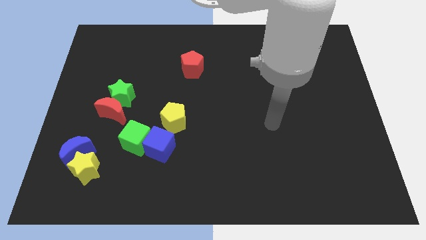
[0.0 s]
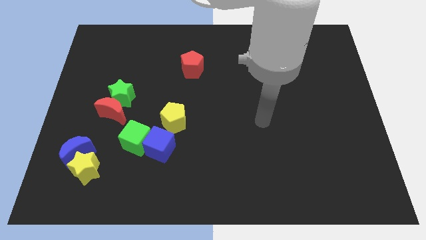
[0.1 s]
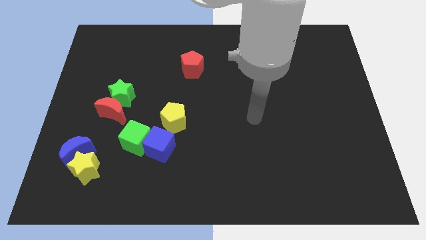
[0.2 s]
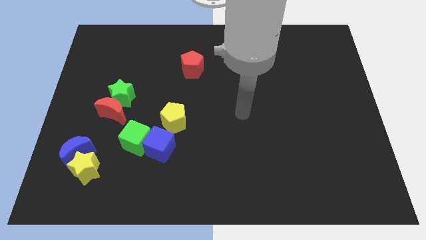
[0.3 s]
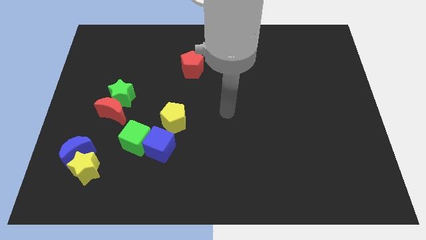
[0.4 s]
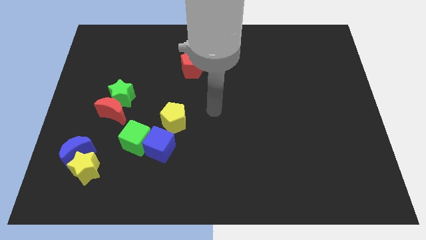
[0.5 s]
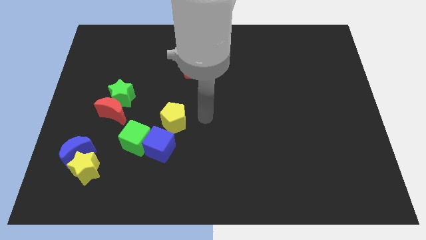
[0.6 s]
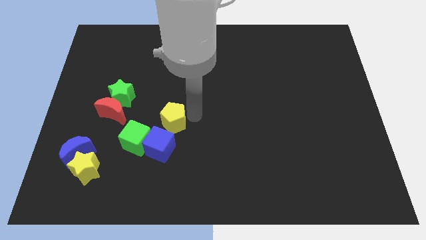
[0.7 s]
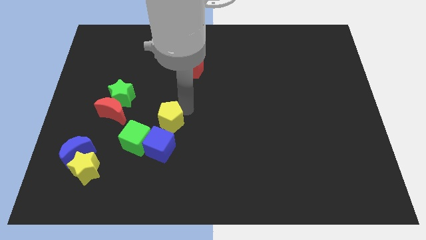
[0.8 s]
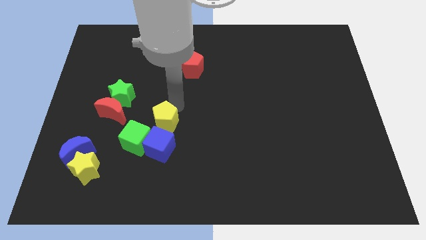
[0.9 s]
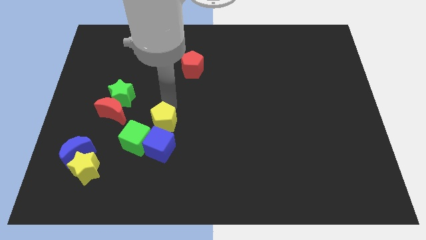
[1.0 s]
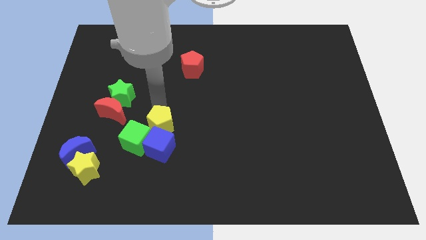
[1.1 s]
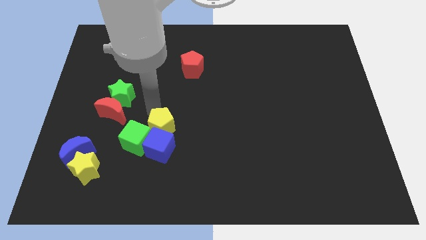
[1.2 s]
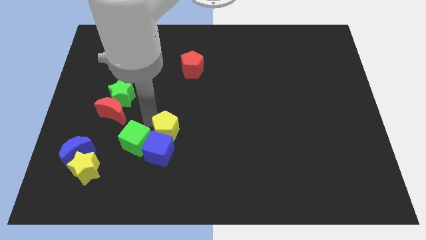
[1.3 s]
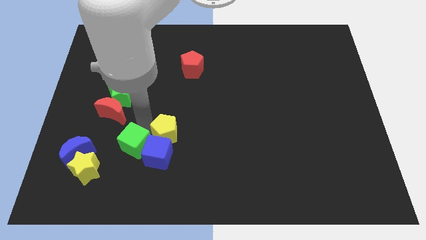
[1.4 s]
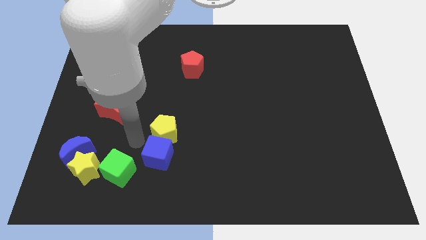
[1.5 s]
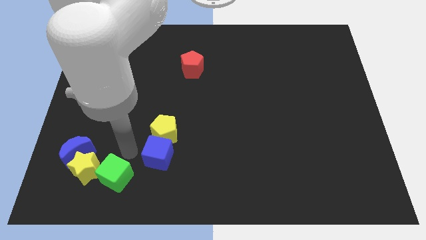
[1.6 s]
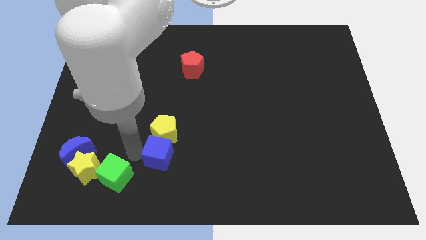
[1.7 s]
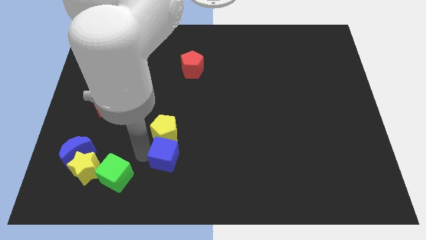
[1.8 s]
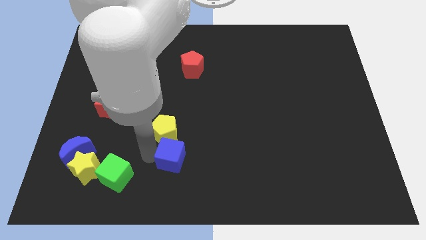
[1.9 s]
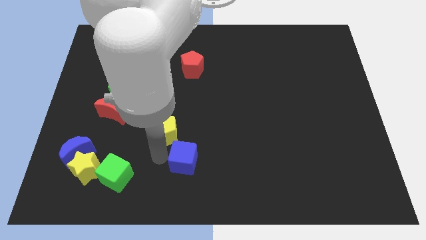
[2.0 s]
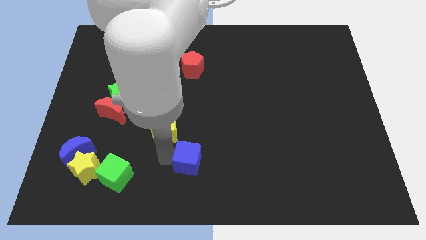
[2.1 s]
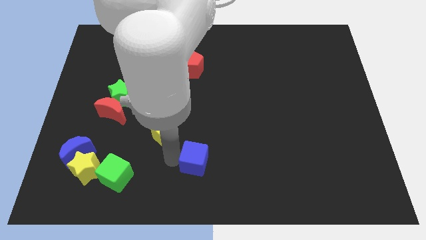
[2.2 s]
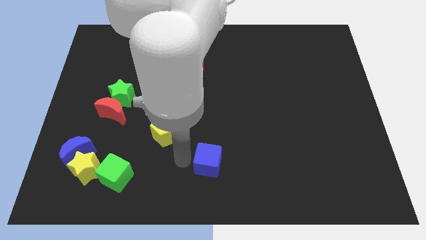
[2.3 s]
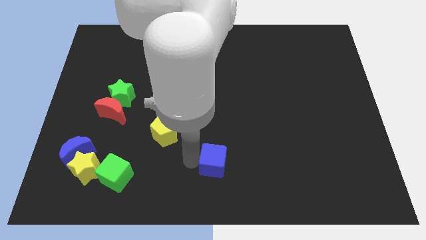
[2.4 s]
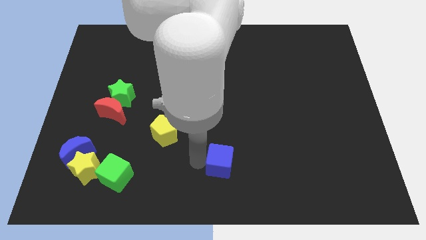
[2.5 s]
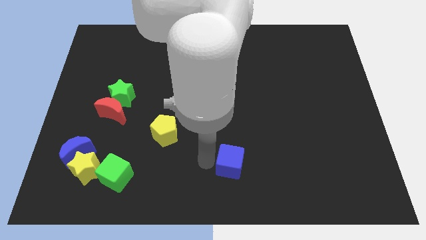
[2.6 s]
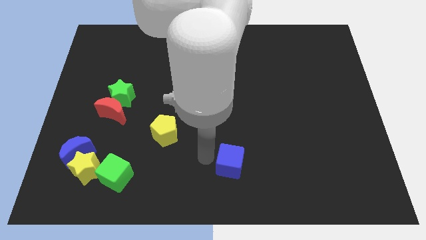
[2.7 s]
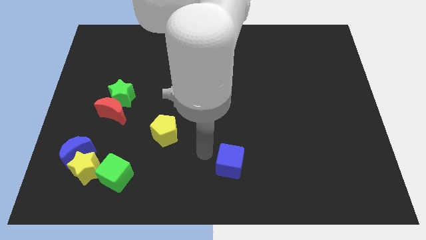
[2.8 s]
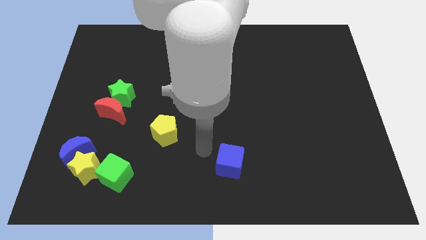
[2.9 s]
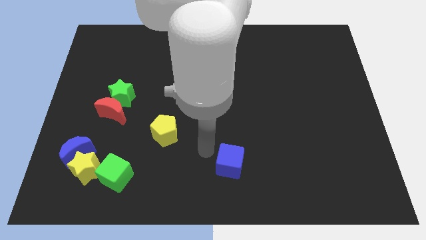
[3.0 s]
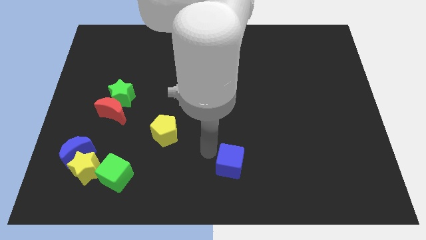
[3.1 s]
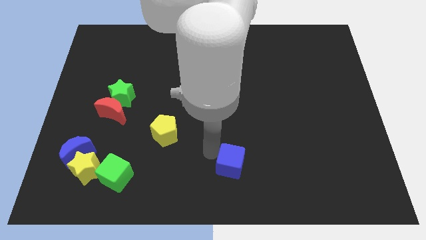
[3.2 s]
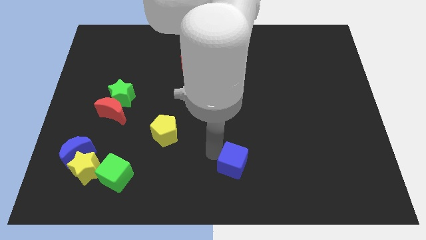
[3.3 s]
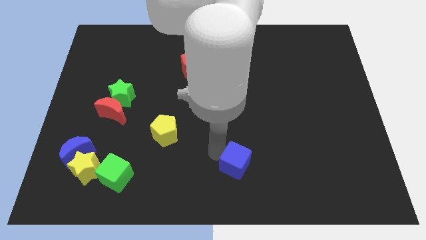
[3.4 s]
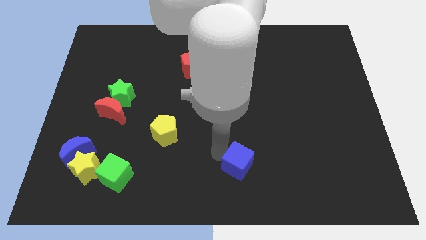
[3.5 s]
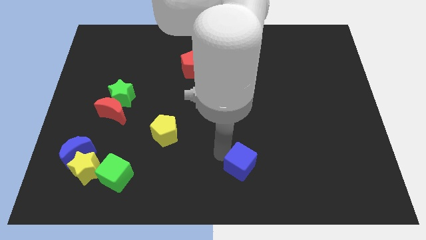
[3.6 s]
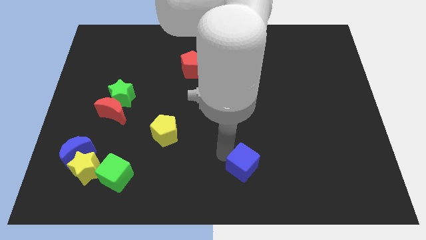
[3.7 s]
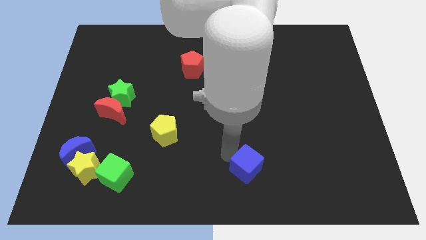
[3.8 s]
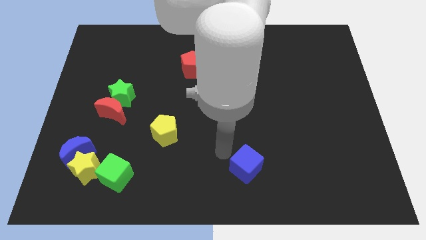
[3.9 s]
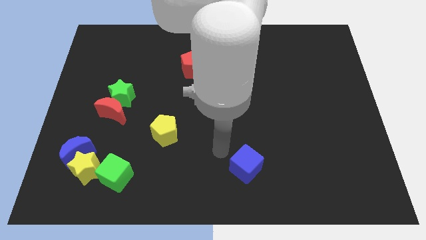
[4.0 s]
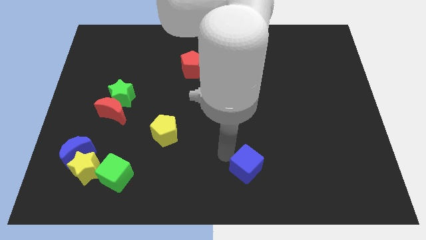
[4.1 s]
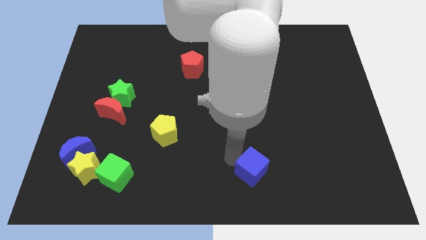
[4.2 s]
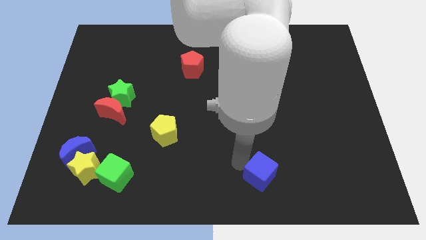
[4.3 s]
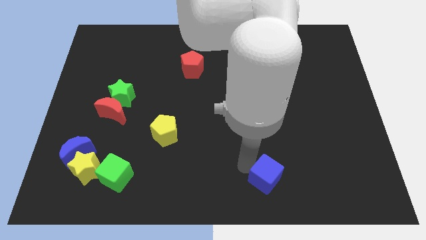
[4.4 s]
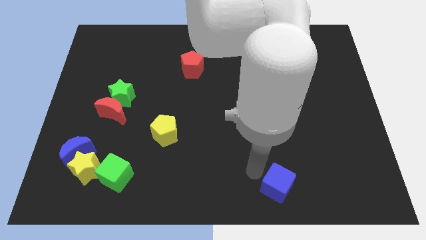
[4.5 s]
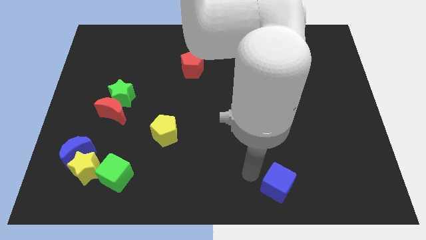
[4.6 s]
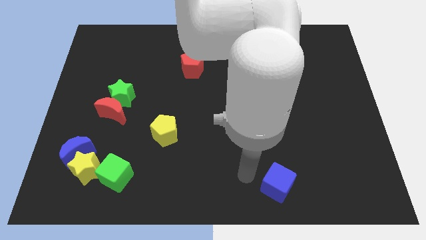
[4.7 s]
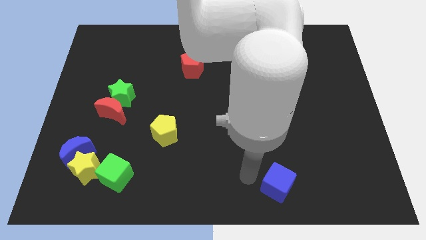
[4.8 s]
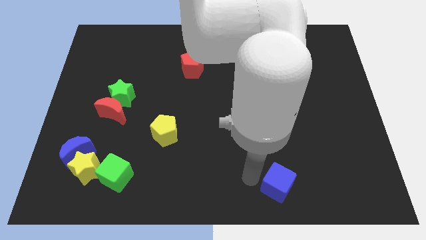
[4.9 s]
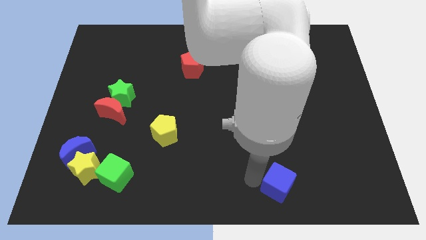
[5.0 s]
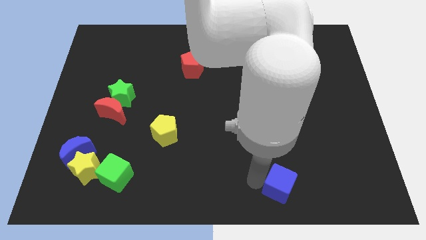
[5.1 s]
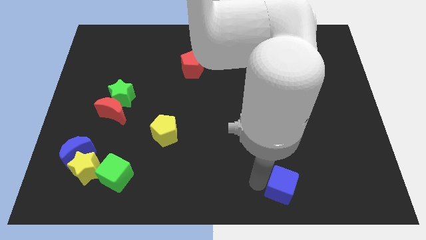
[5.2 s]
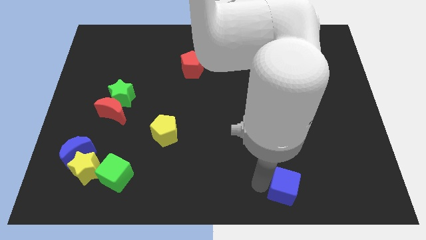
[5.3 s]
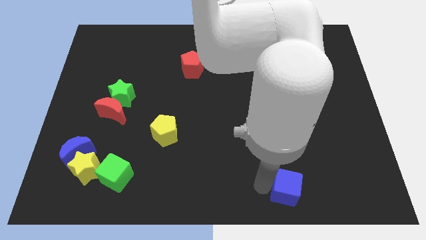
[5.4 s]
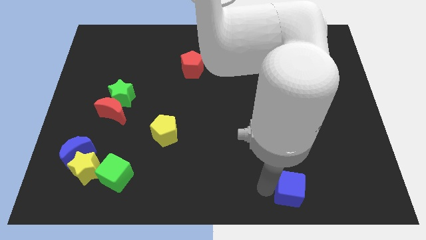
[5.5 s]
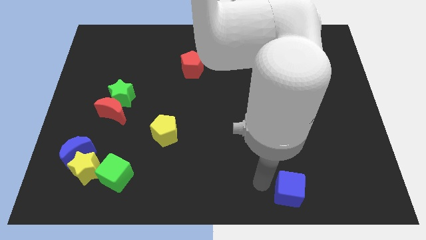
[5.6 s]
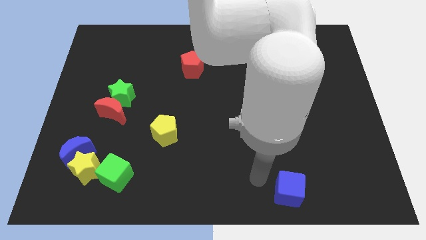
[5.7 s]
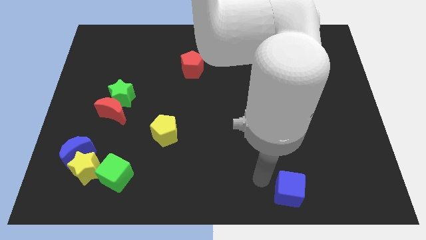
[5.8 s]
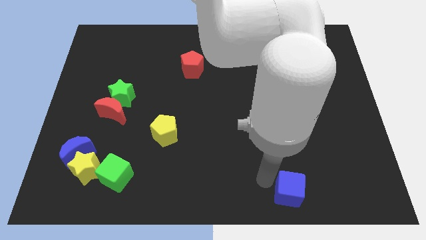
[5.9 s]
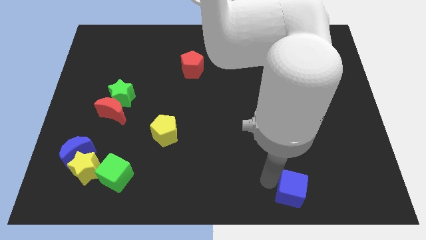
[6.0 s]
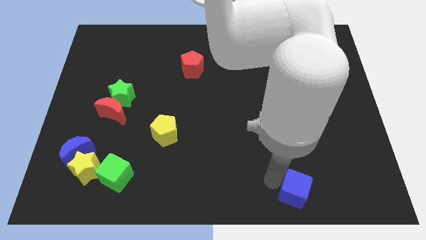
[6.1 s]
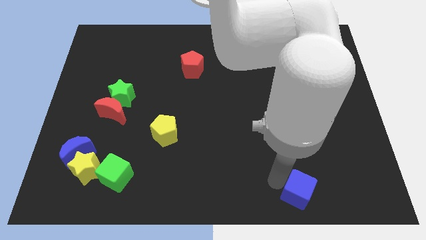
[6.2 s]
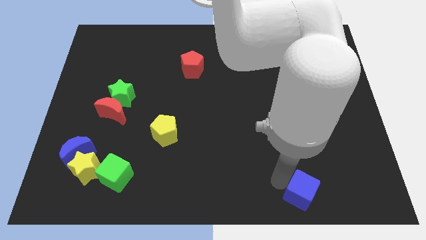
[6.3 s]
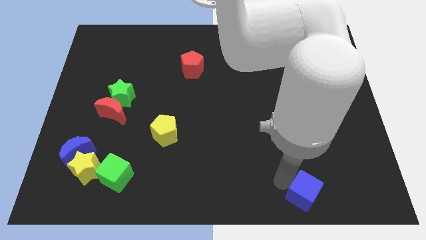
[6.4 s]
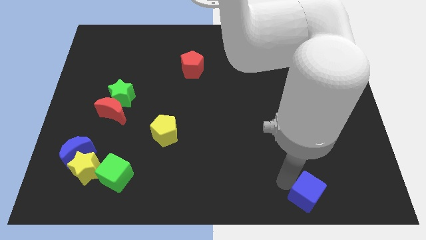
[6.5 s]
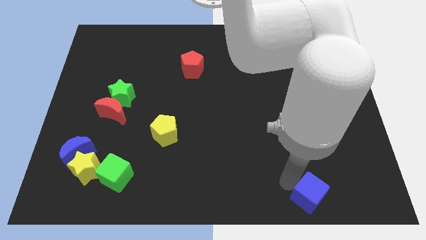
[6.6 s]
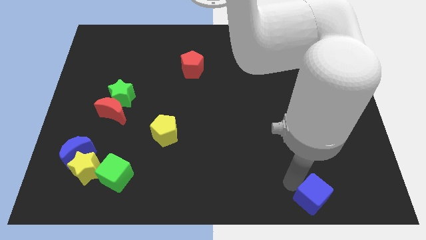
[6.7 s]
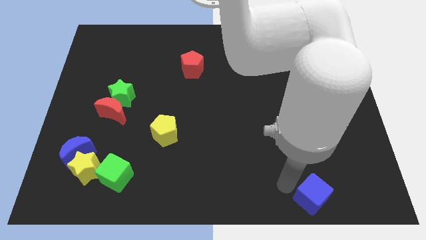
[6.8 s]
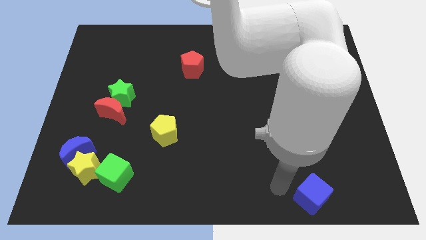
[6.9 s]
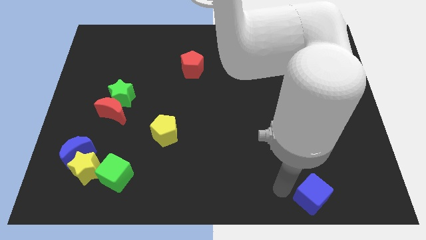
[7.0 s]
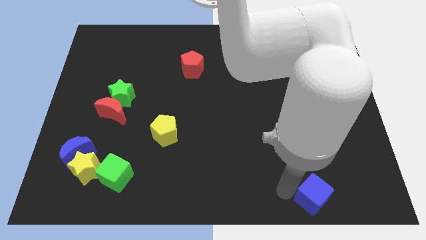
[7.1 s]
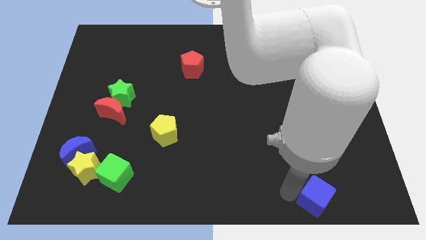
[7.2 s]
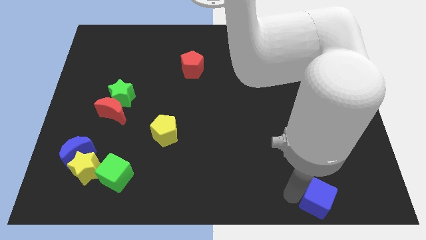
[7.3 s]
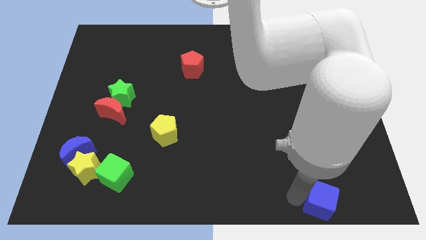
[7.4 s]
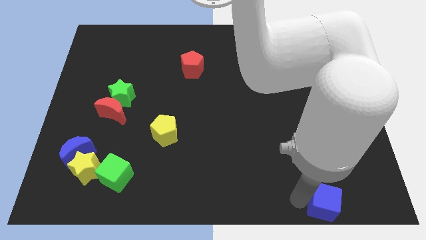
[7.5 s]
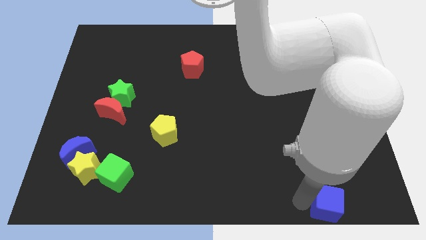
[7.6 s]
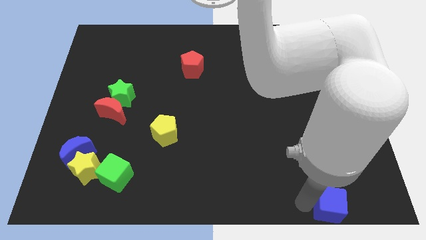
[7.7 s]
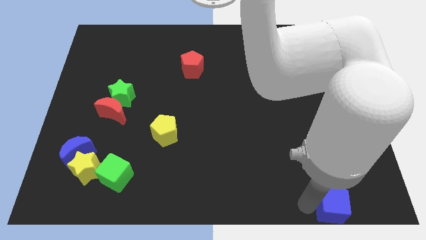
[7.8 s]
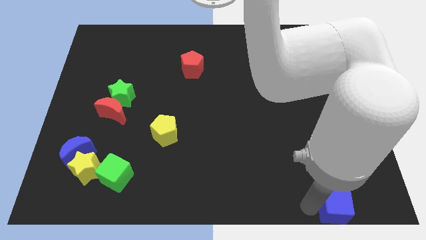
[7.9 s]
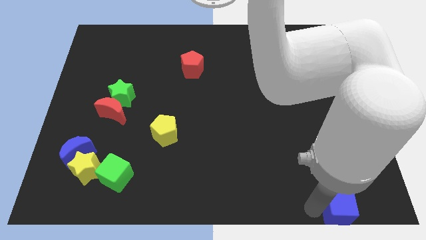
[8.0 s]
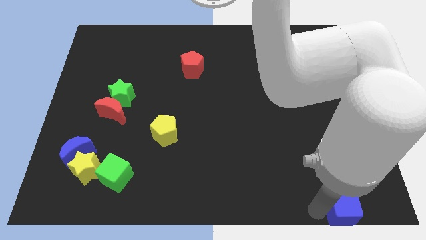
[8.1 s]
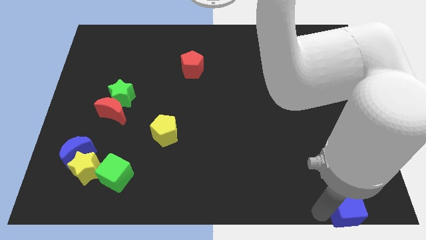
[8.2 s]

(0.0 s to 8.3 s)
slide the blue cube to the bottom right corner
